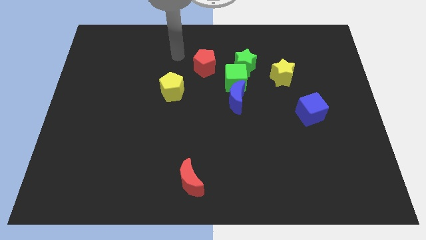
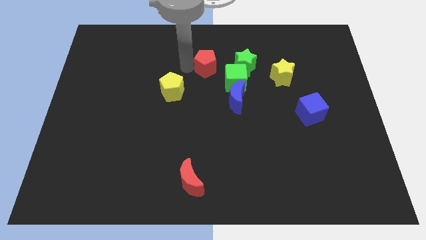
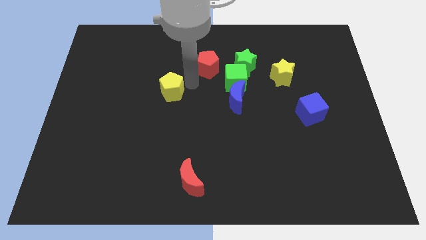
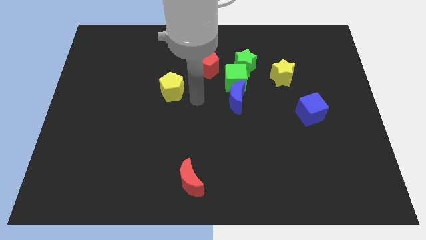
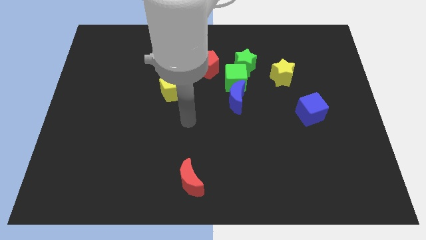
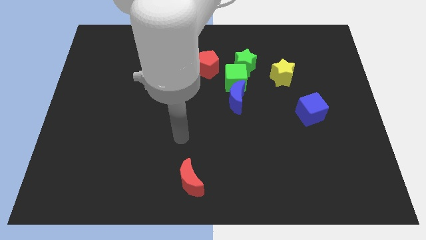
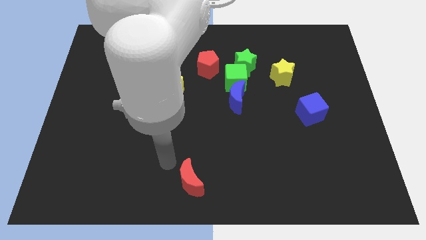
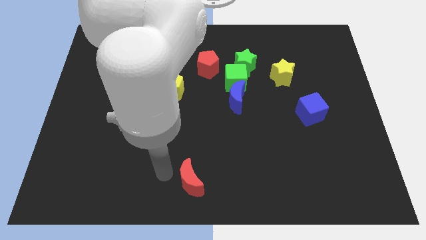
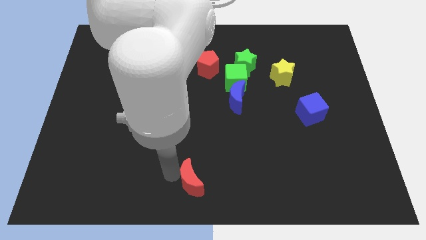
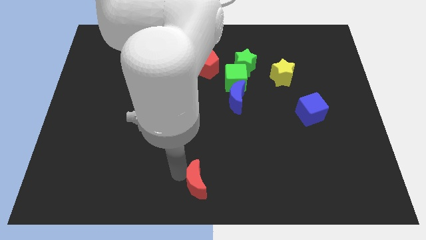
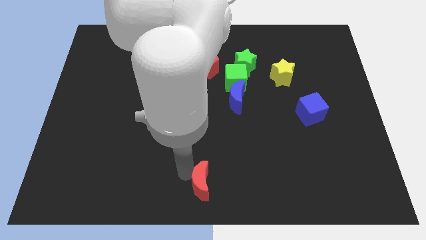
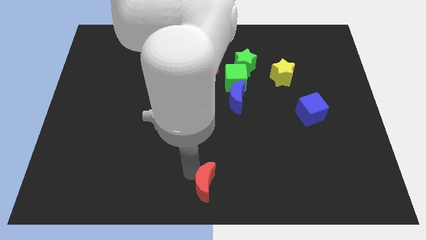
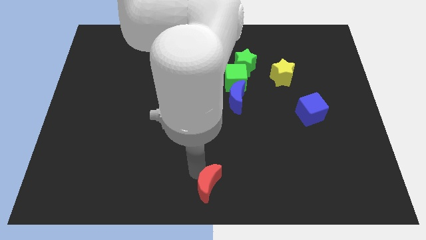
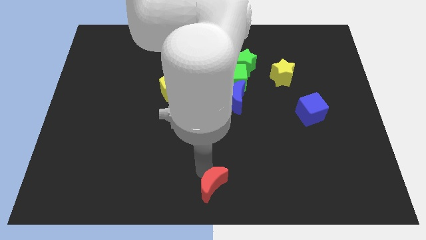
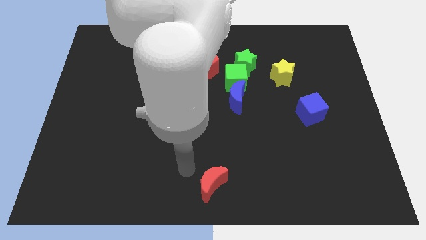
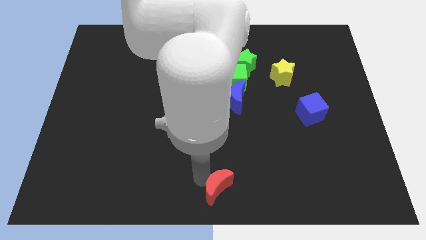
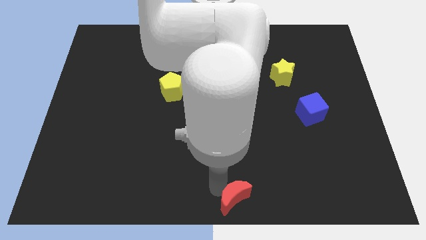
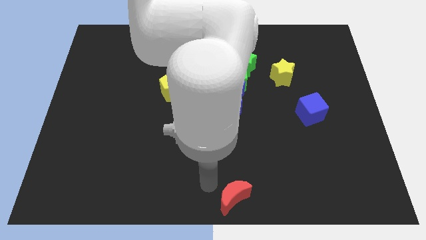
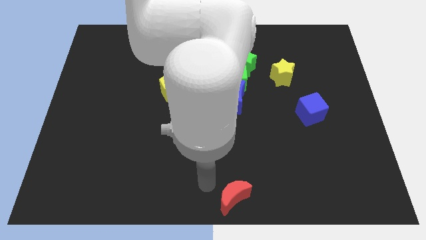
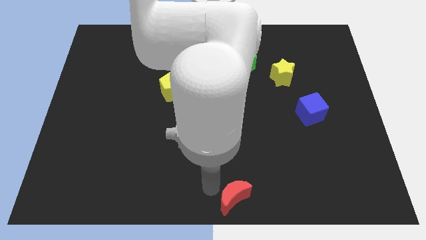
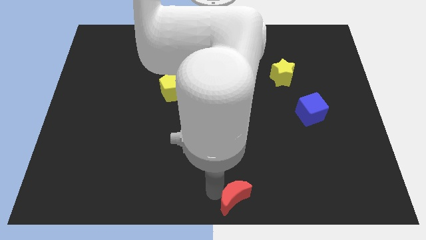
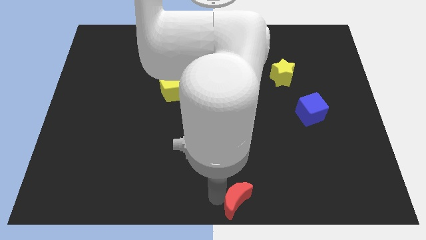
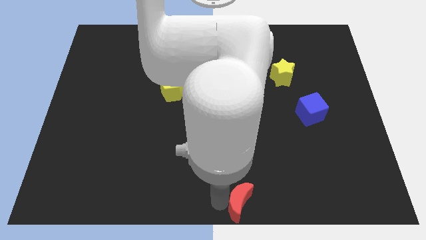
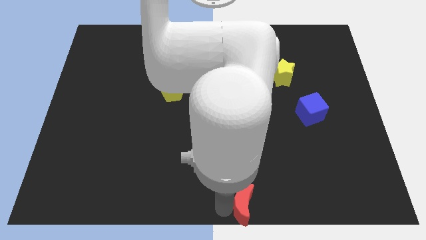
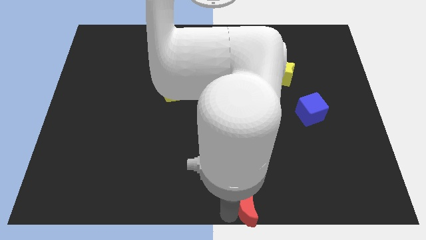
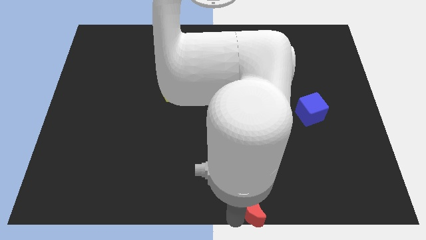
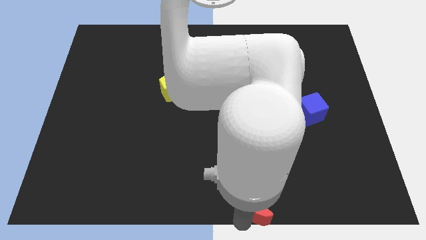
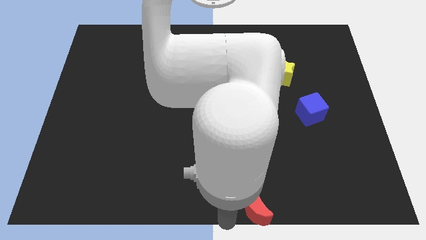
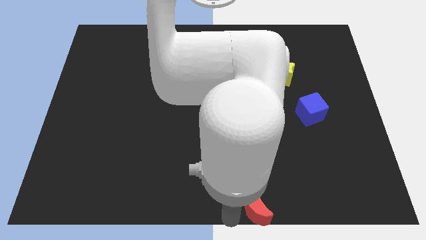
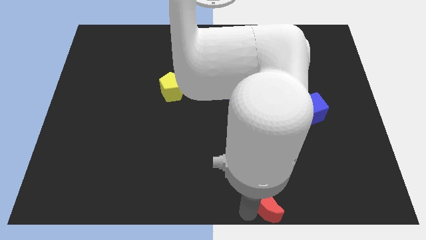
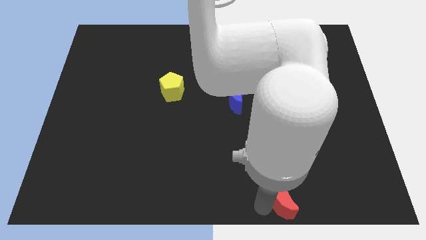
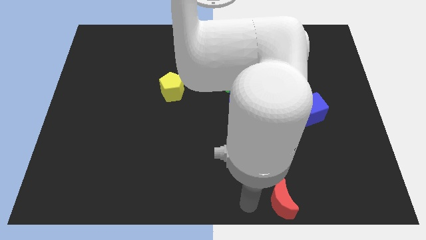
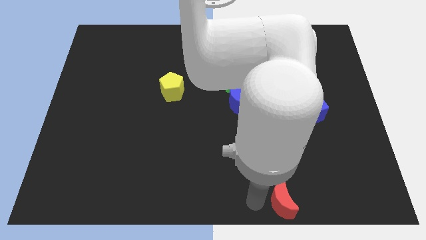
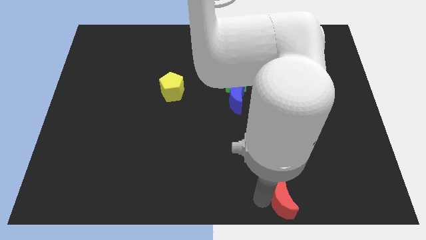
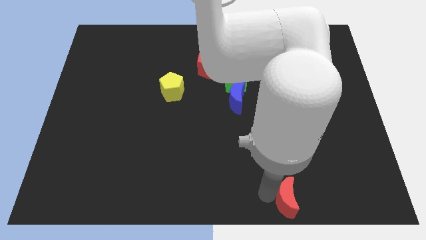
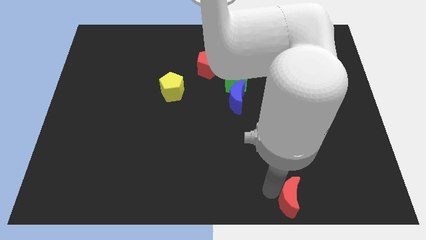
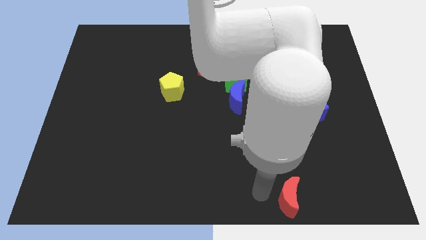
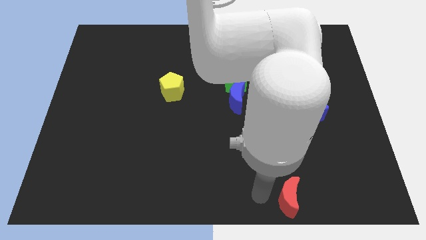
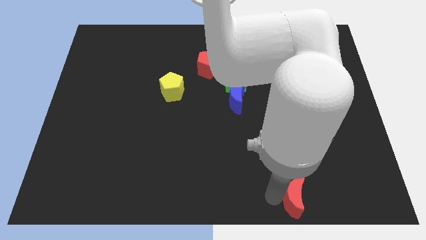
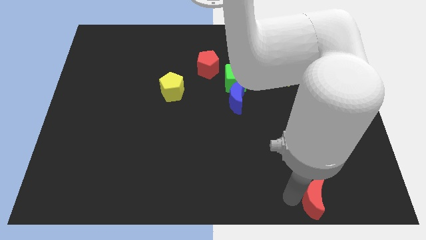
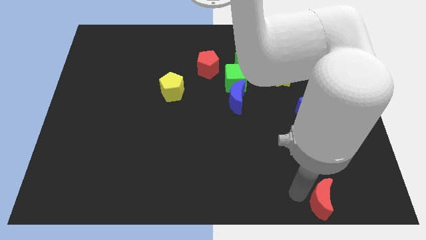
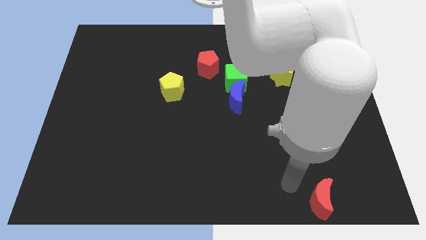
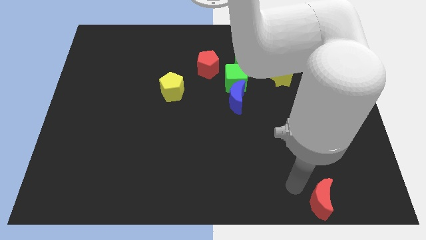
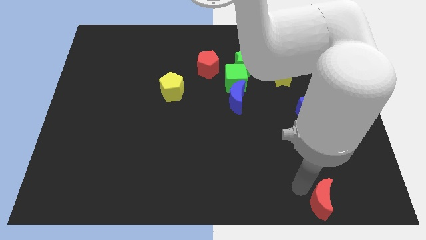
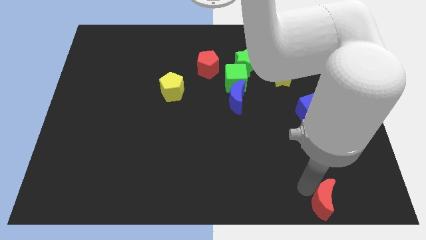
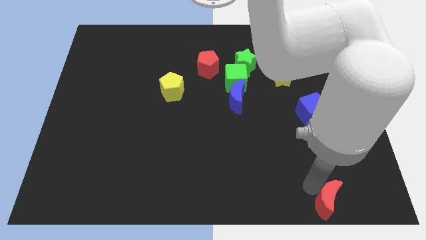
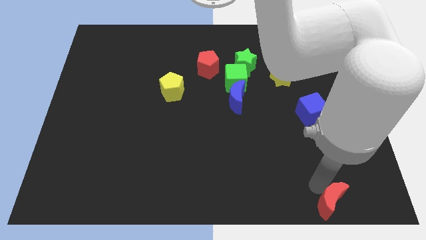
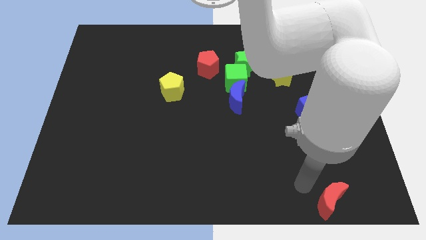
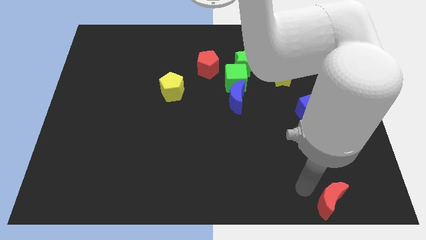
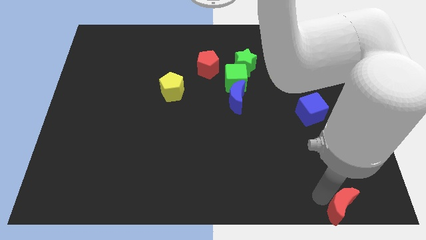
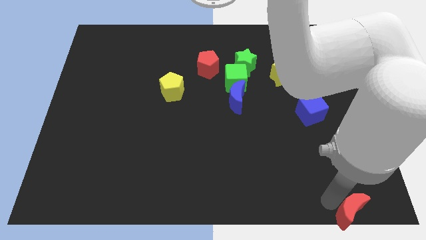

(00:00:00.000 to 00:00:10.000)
put the red moon to the bottom right of the board
